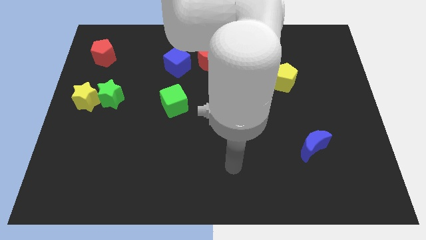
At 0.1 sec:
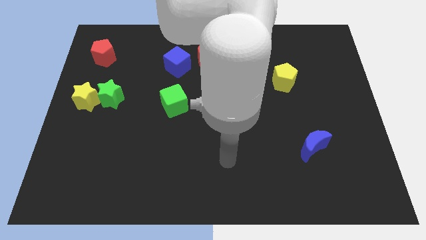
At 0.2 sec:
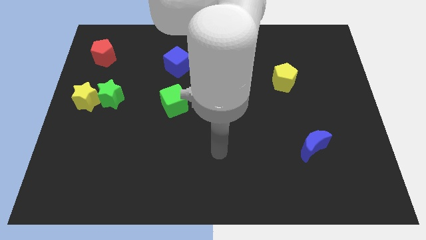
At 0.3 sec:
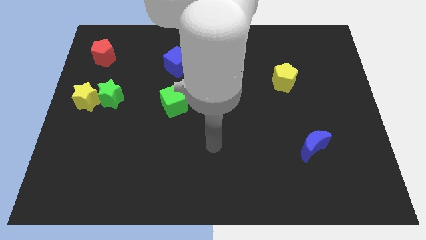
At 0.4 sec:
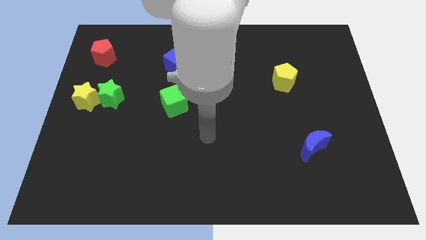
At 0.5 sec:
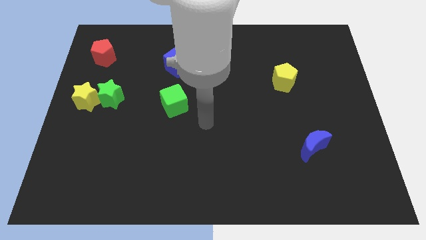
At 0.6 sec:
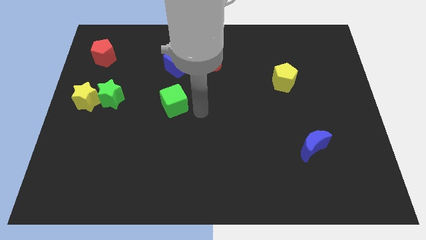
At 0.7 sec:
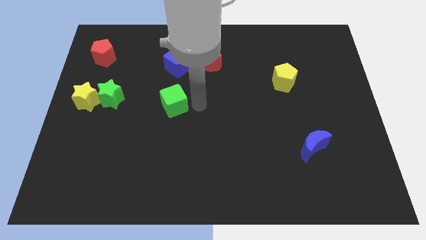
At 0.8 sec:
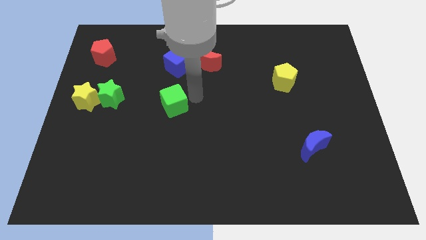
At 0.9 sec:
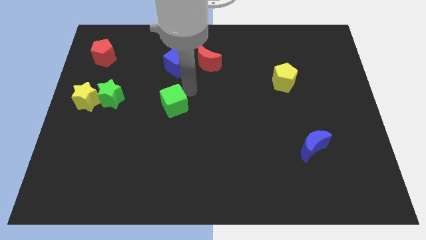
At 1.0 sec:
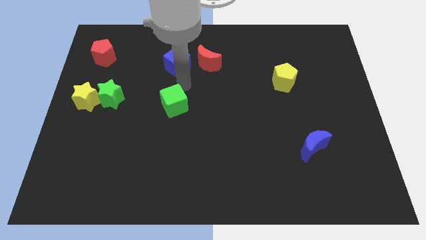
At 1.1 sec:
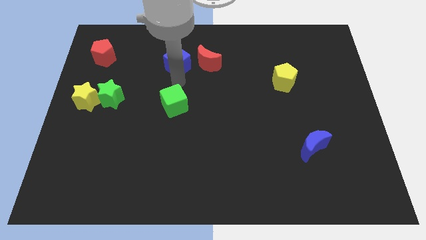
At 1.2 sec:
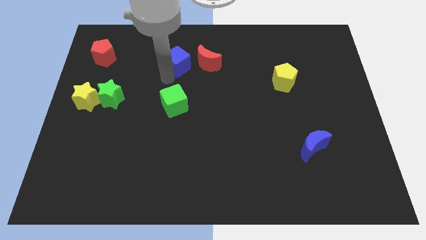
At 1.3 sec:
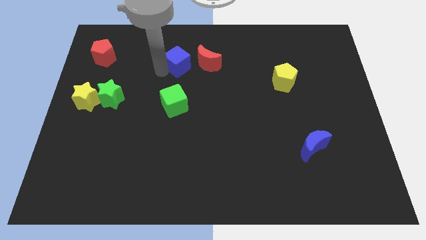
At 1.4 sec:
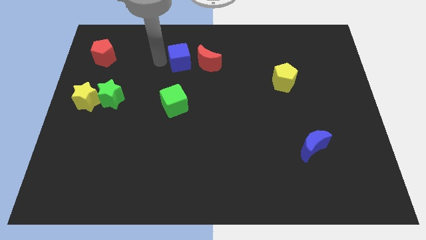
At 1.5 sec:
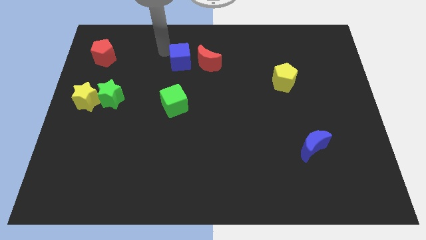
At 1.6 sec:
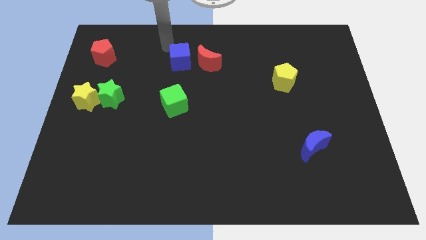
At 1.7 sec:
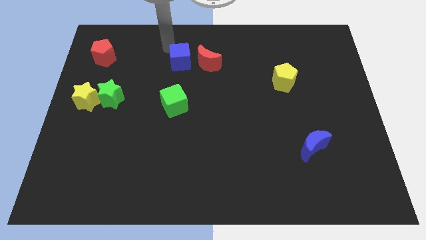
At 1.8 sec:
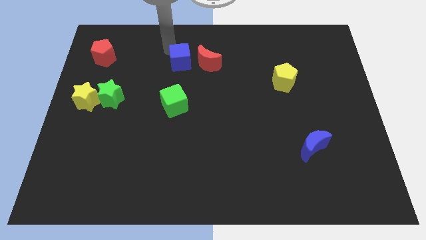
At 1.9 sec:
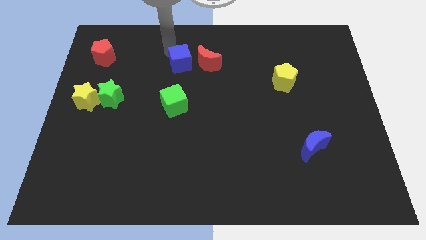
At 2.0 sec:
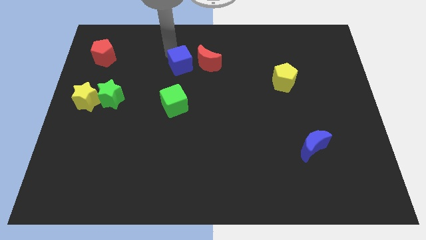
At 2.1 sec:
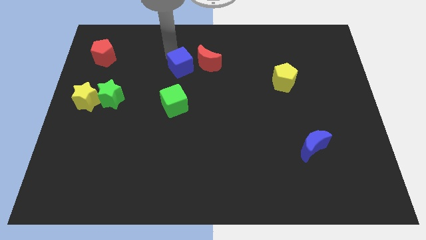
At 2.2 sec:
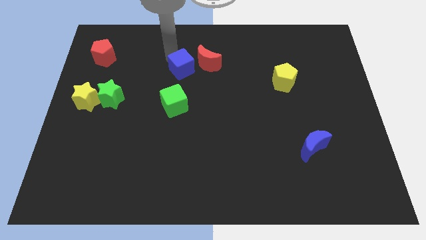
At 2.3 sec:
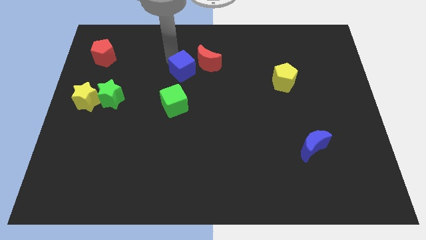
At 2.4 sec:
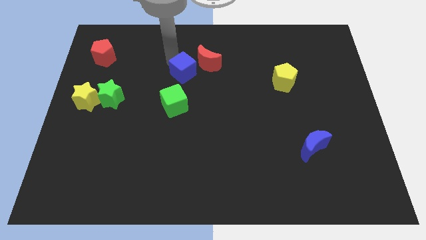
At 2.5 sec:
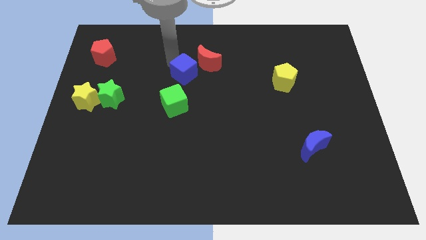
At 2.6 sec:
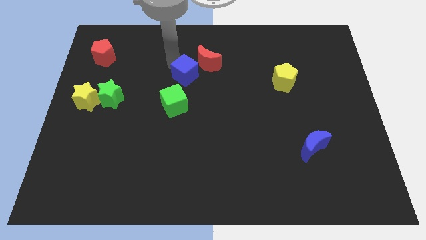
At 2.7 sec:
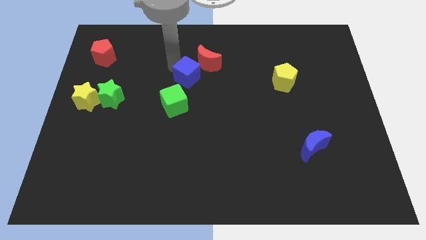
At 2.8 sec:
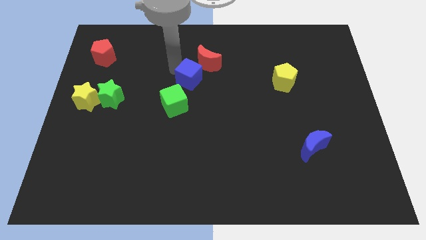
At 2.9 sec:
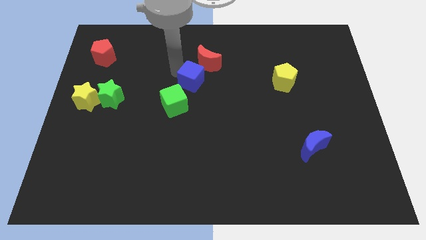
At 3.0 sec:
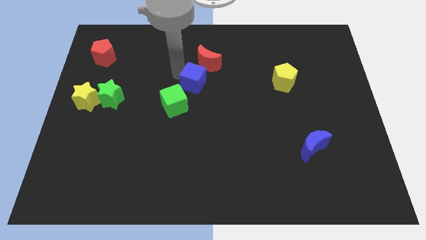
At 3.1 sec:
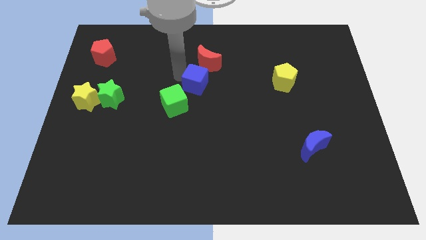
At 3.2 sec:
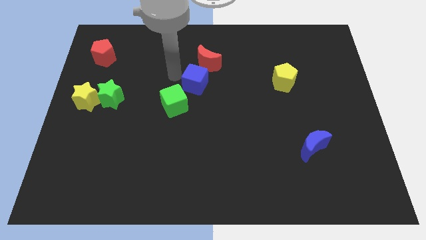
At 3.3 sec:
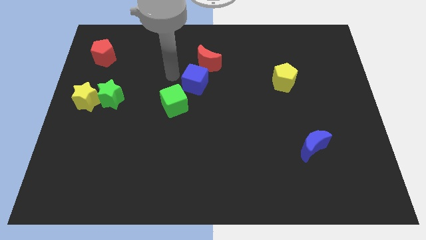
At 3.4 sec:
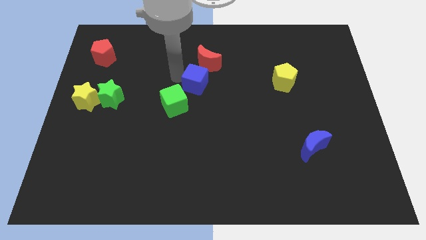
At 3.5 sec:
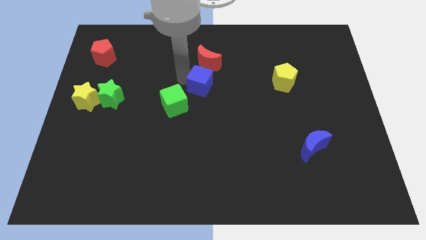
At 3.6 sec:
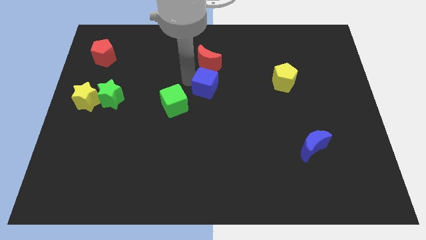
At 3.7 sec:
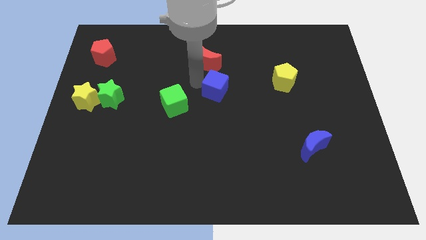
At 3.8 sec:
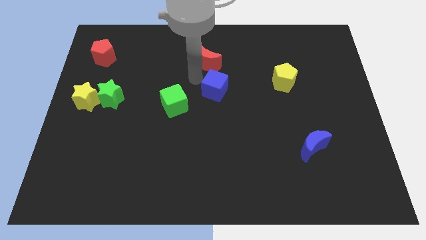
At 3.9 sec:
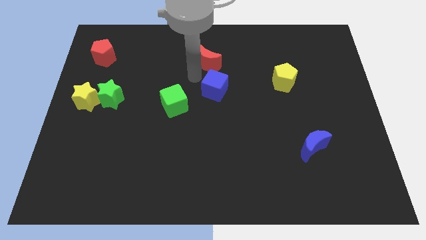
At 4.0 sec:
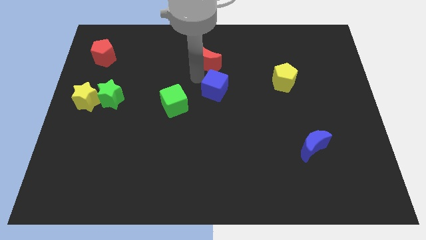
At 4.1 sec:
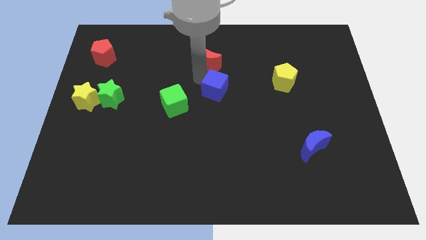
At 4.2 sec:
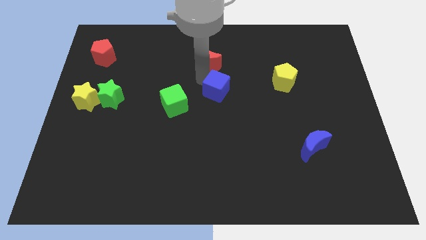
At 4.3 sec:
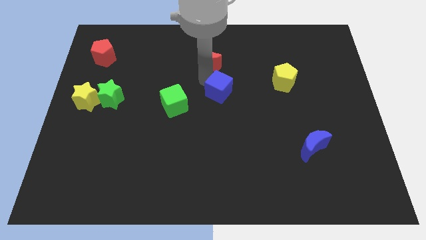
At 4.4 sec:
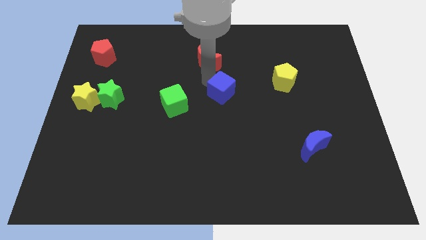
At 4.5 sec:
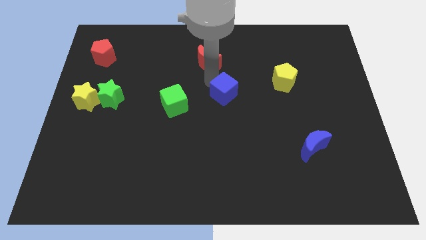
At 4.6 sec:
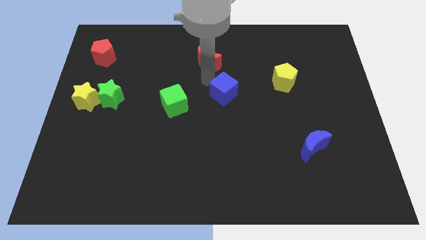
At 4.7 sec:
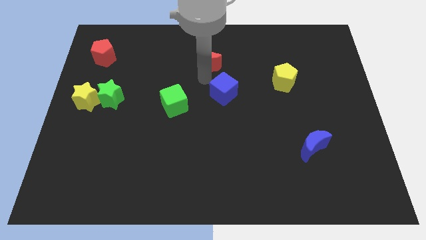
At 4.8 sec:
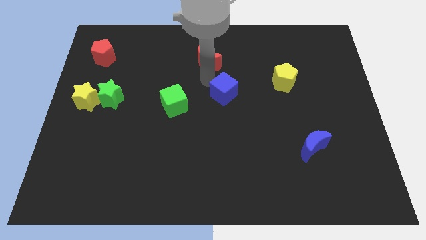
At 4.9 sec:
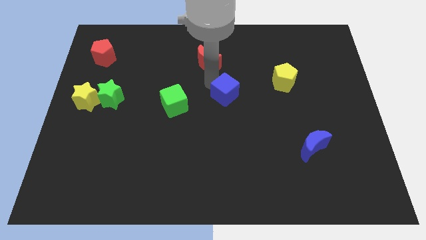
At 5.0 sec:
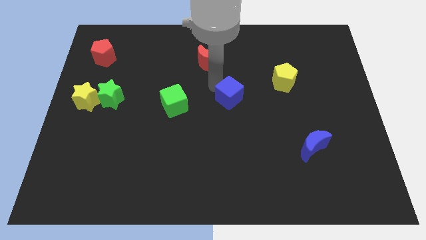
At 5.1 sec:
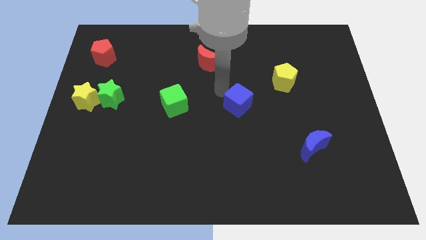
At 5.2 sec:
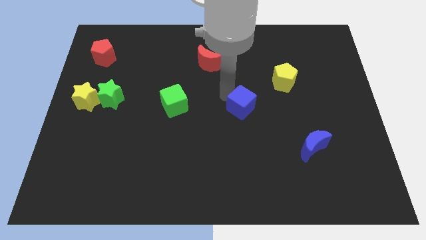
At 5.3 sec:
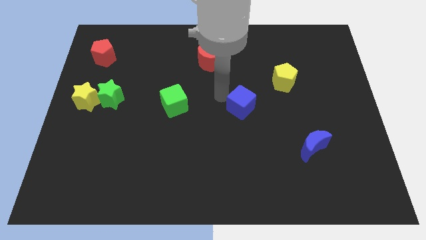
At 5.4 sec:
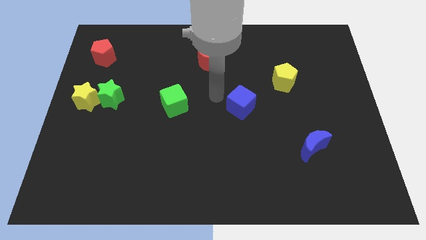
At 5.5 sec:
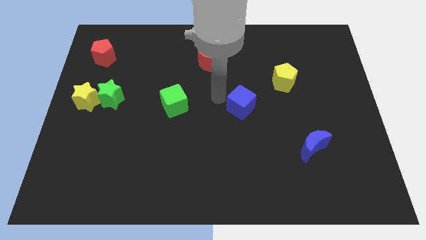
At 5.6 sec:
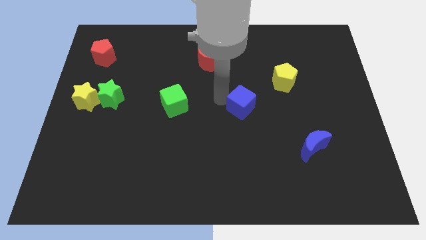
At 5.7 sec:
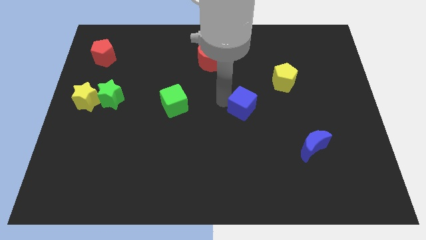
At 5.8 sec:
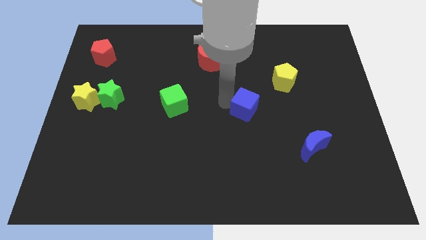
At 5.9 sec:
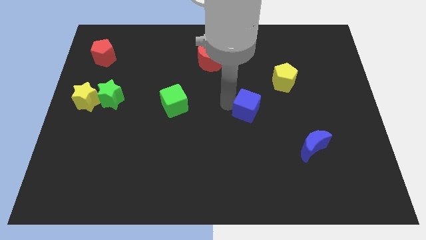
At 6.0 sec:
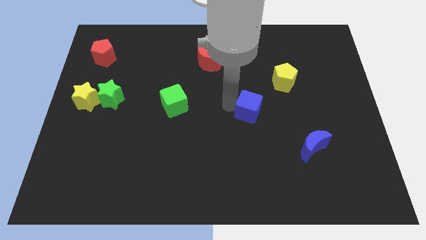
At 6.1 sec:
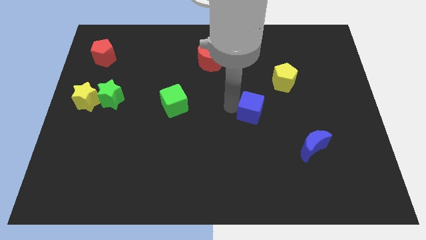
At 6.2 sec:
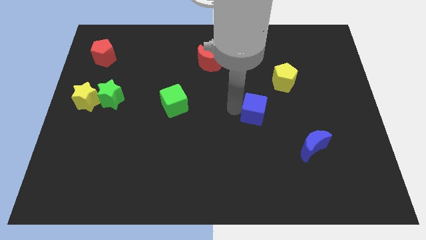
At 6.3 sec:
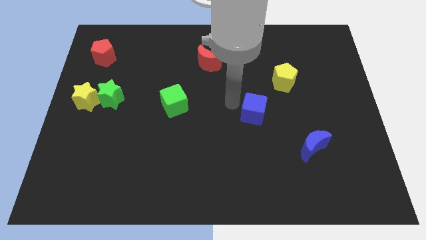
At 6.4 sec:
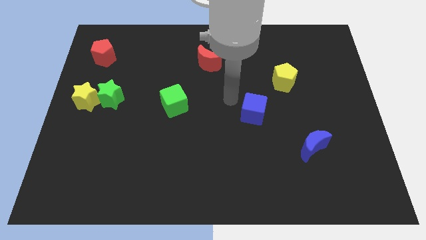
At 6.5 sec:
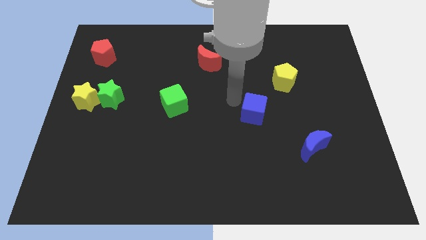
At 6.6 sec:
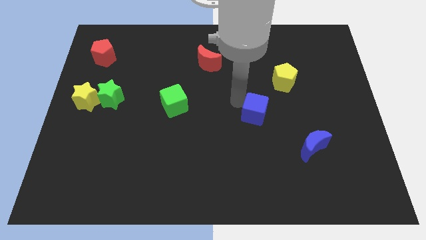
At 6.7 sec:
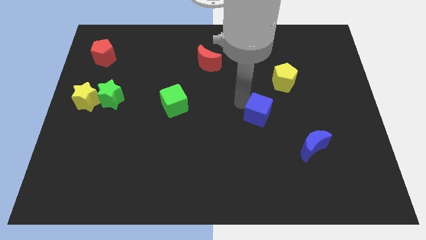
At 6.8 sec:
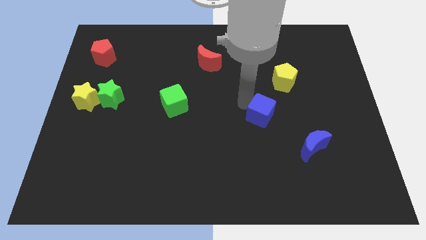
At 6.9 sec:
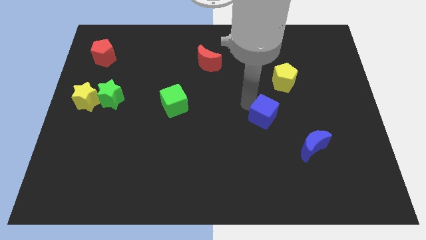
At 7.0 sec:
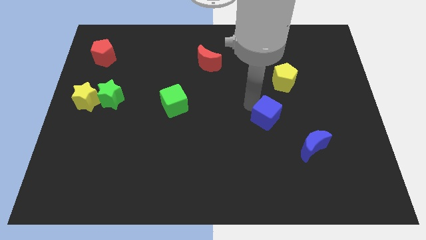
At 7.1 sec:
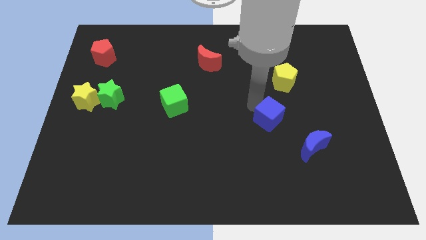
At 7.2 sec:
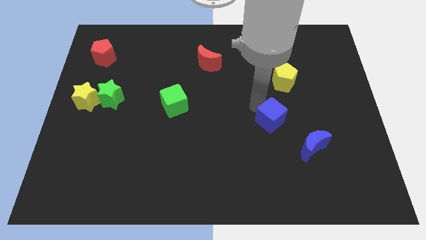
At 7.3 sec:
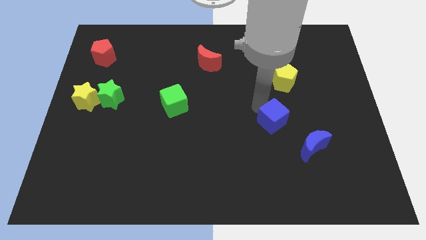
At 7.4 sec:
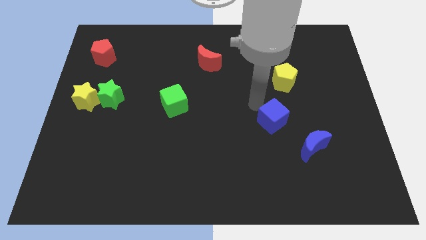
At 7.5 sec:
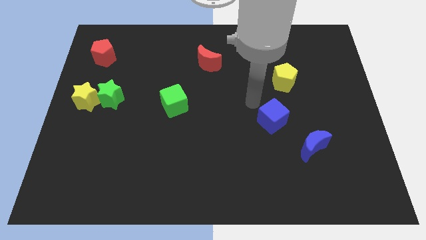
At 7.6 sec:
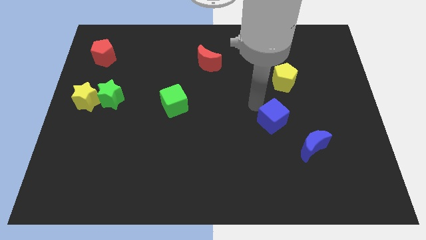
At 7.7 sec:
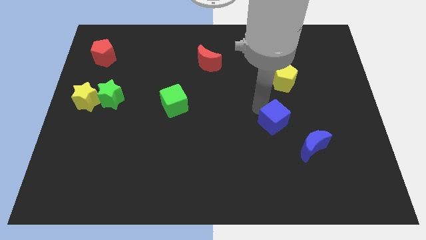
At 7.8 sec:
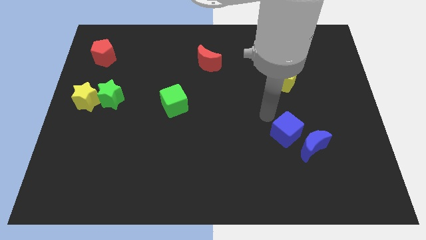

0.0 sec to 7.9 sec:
move the blue cube close to the blue moon
